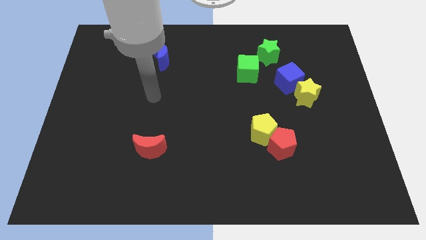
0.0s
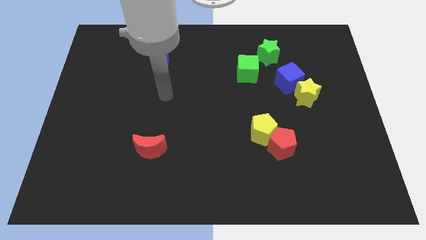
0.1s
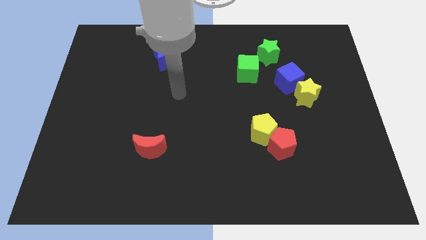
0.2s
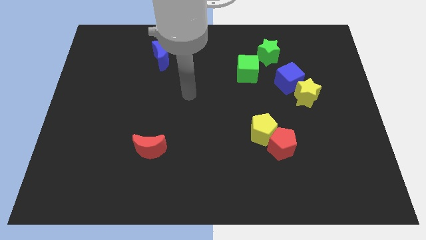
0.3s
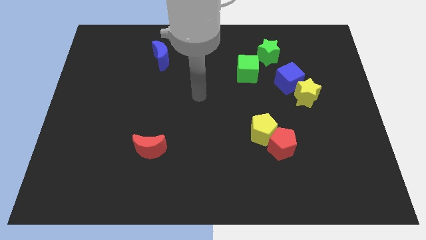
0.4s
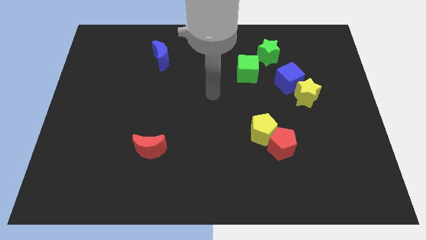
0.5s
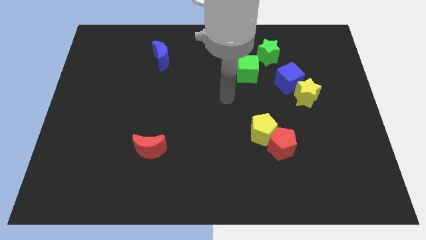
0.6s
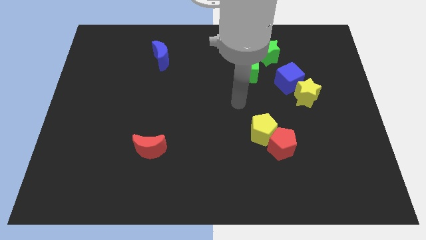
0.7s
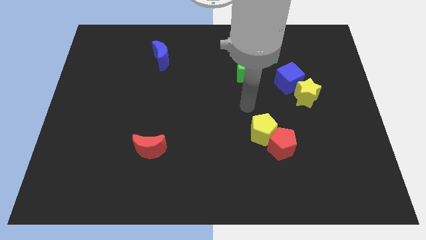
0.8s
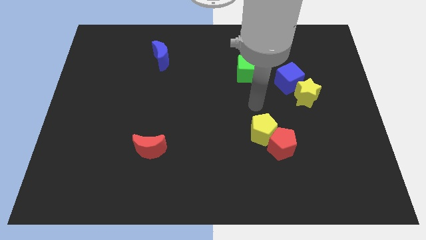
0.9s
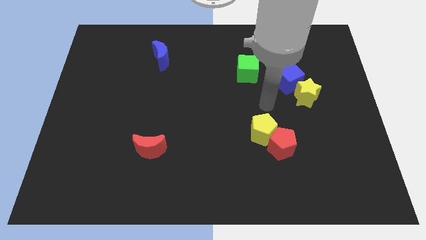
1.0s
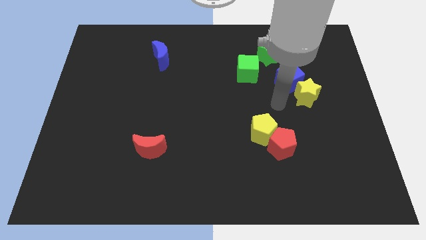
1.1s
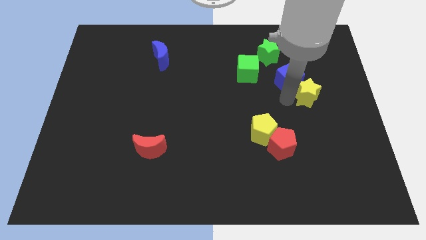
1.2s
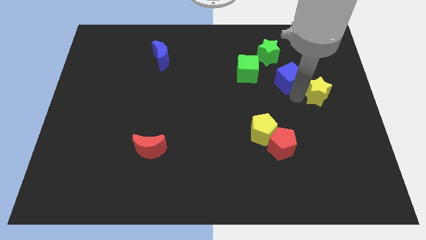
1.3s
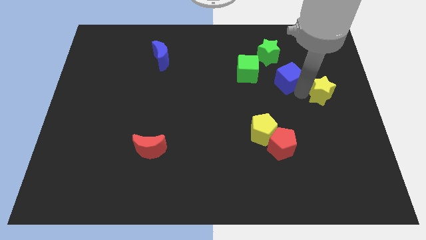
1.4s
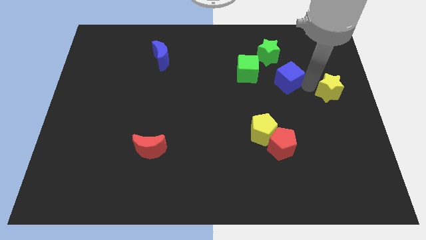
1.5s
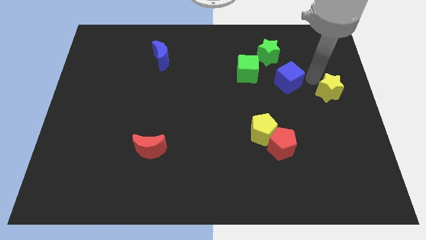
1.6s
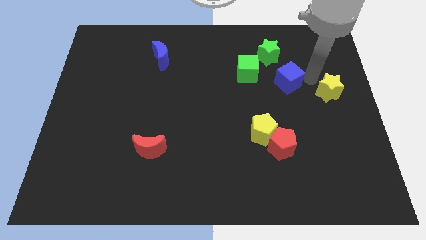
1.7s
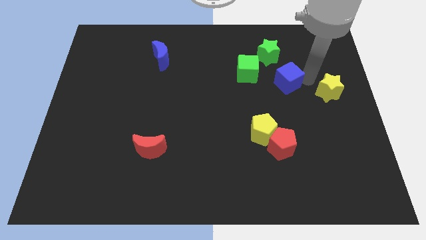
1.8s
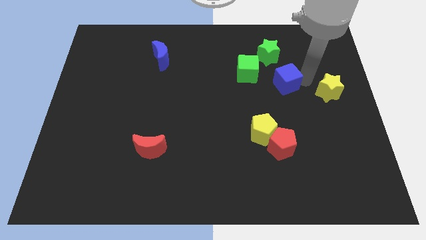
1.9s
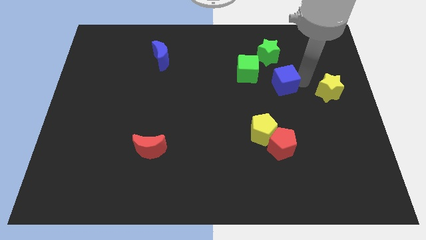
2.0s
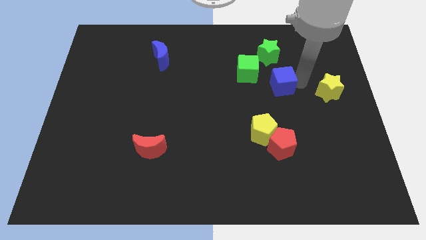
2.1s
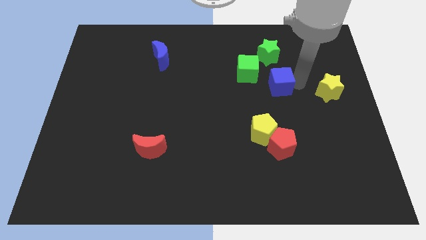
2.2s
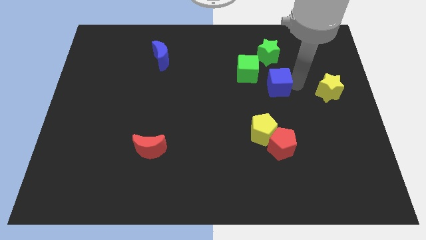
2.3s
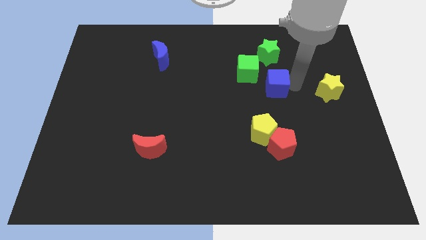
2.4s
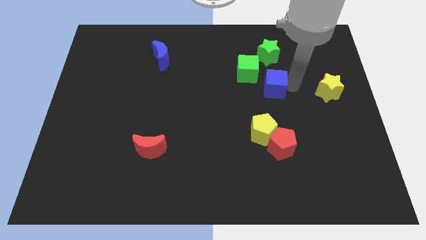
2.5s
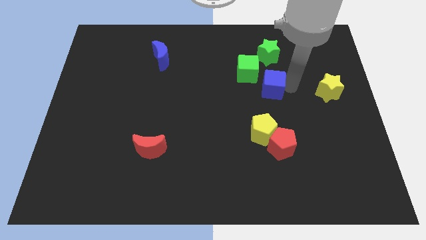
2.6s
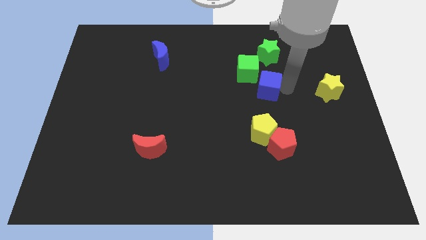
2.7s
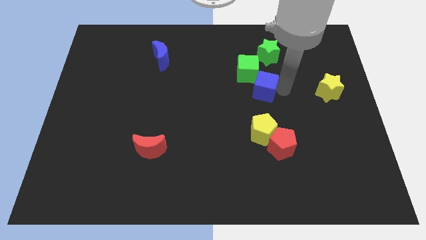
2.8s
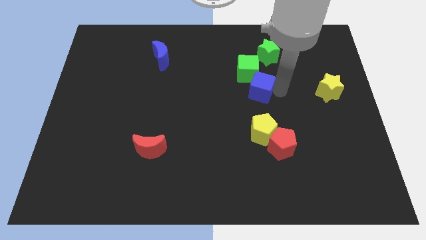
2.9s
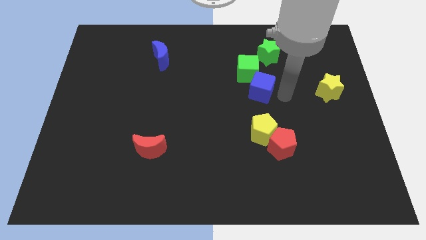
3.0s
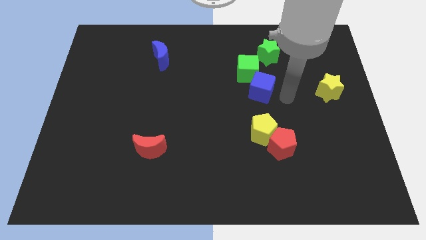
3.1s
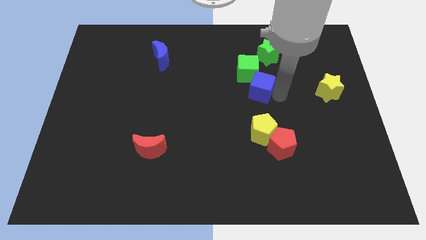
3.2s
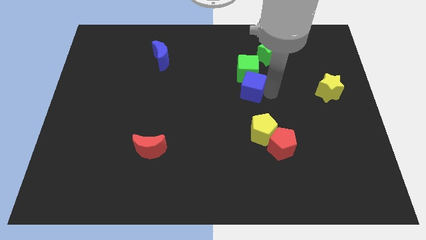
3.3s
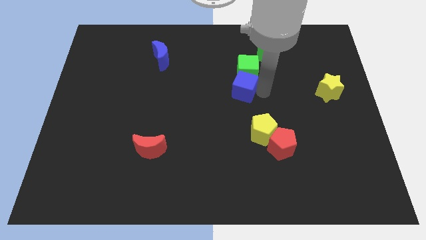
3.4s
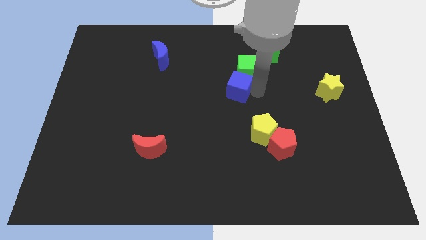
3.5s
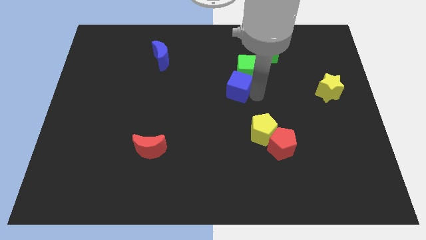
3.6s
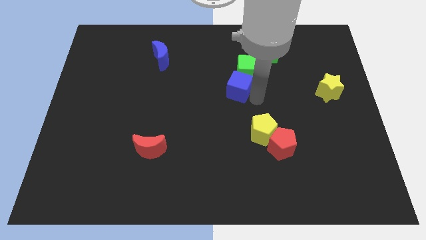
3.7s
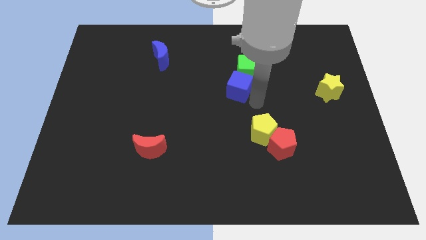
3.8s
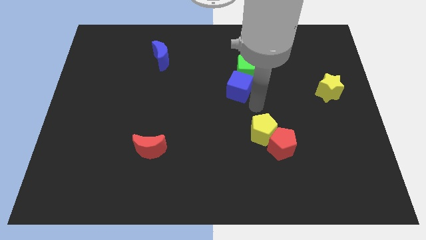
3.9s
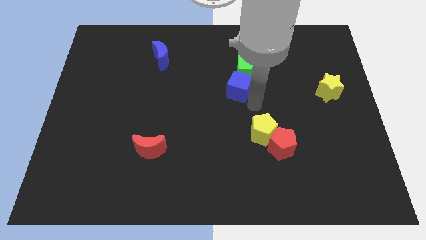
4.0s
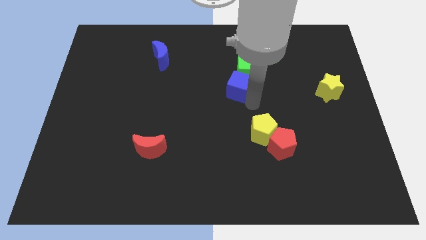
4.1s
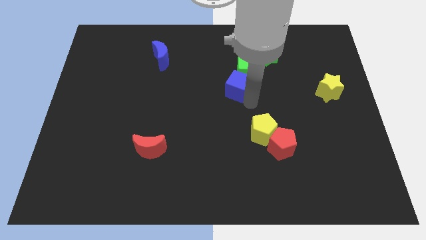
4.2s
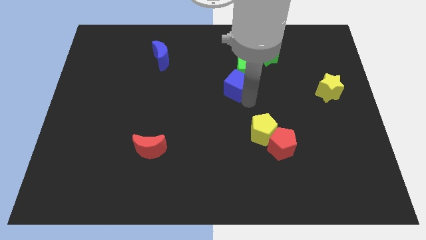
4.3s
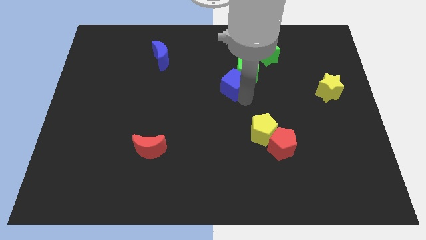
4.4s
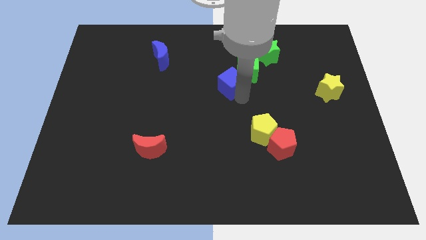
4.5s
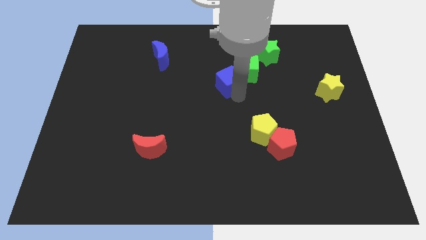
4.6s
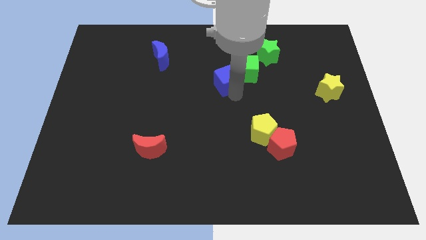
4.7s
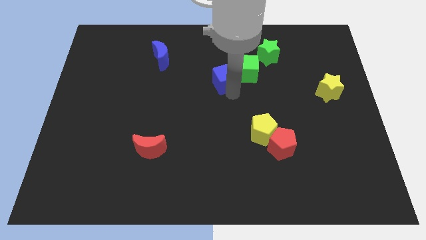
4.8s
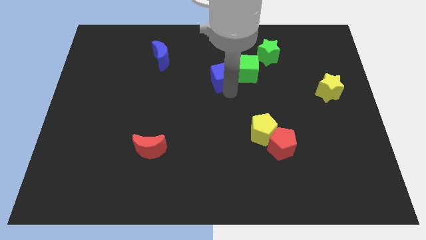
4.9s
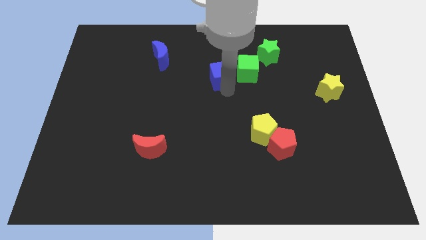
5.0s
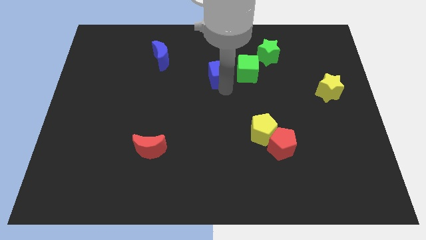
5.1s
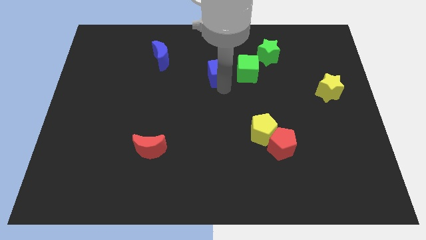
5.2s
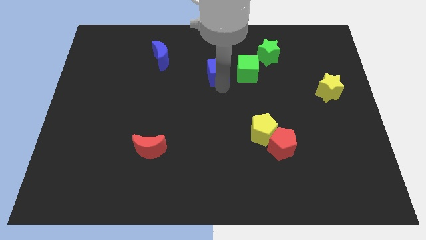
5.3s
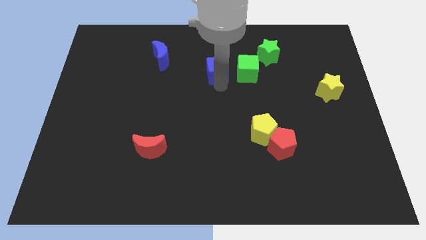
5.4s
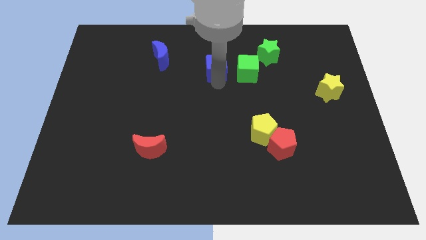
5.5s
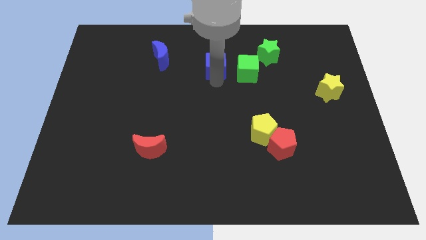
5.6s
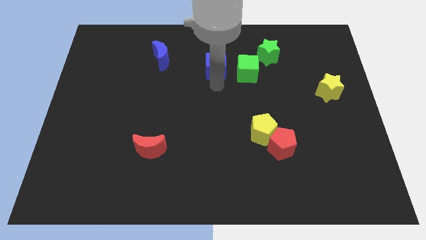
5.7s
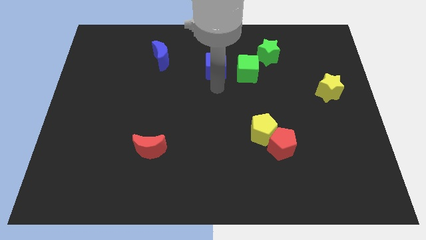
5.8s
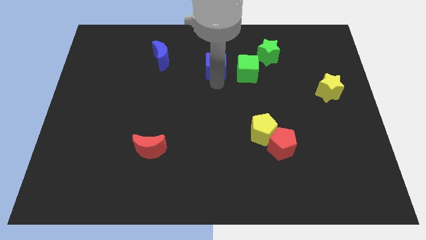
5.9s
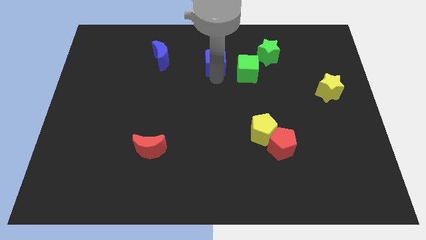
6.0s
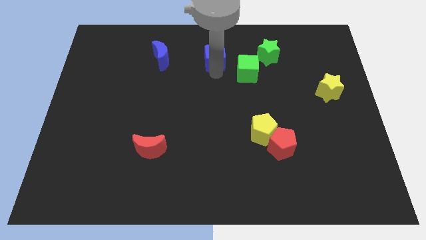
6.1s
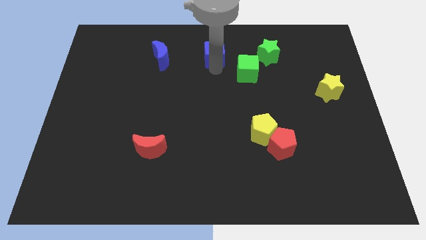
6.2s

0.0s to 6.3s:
put the blue cube to the towards your base
